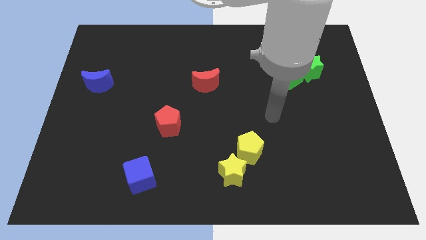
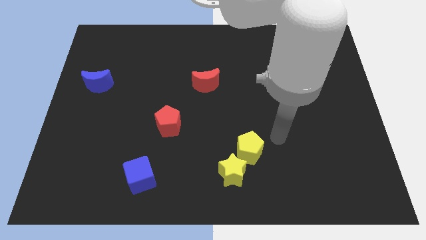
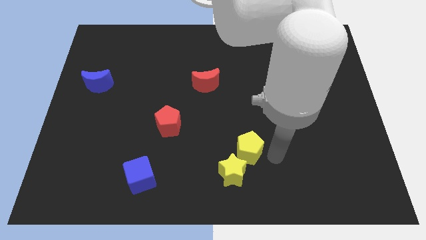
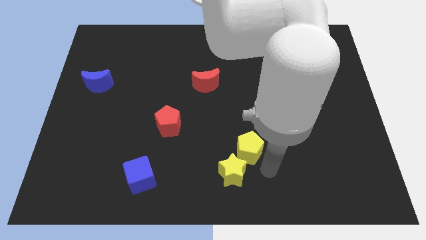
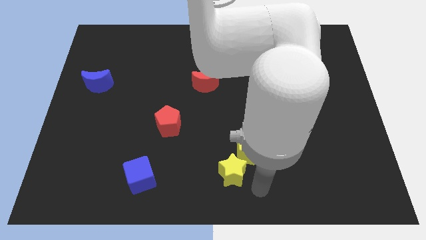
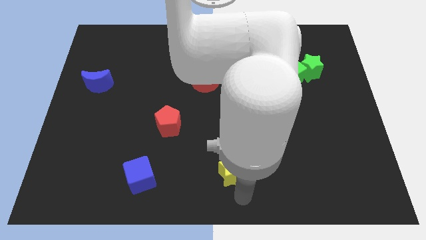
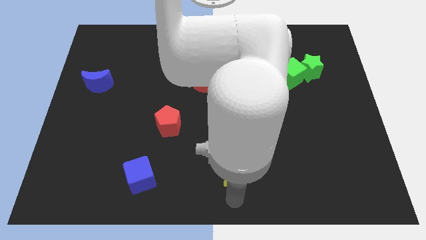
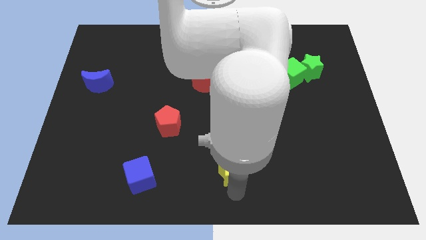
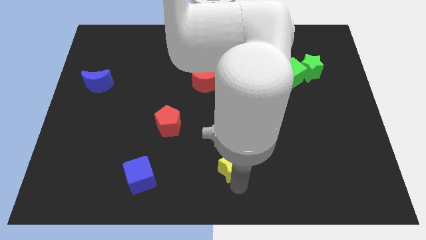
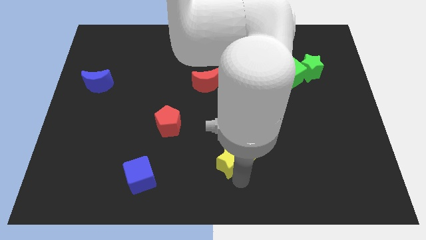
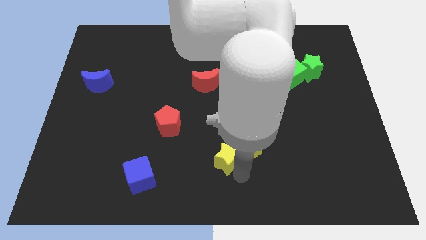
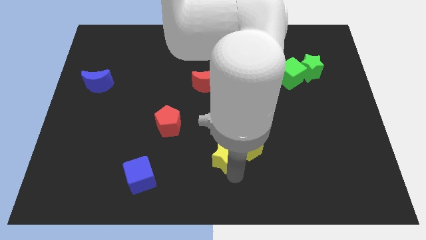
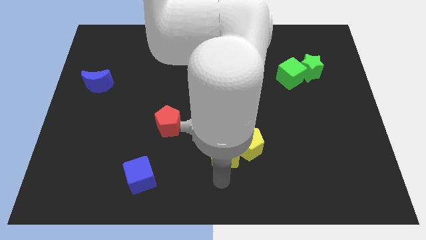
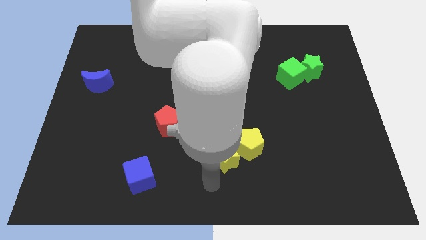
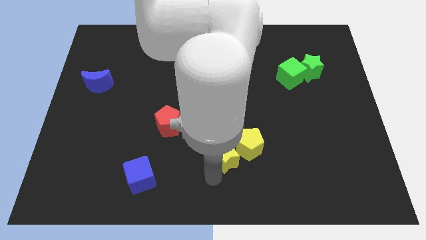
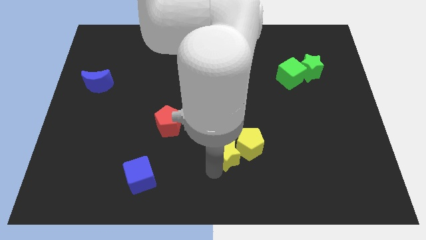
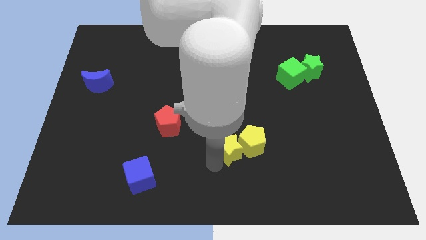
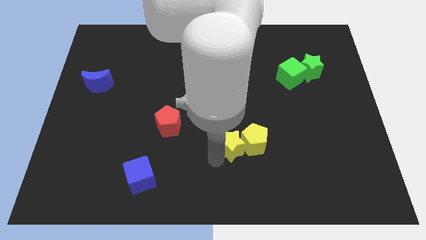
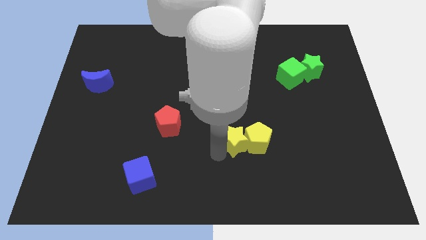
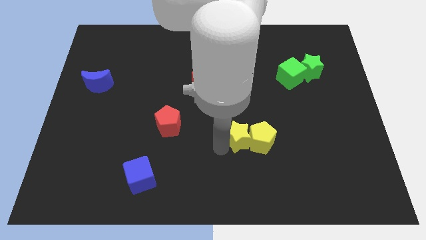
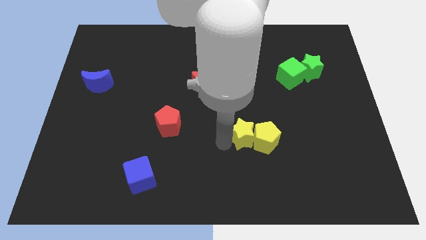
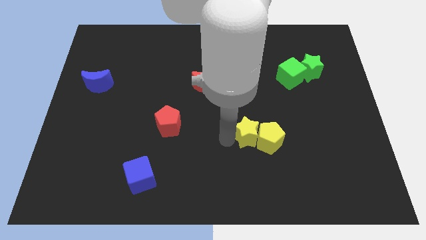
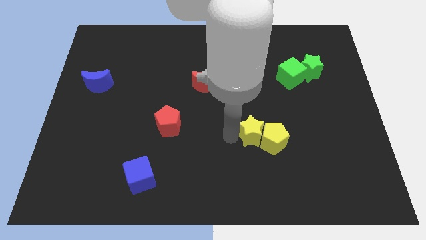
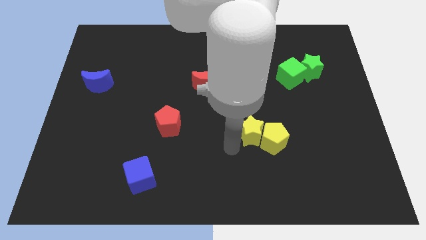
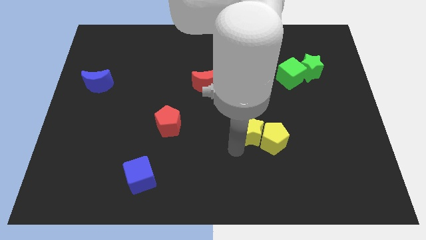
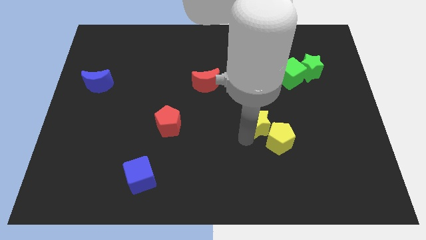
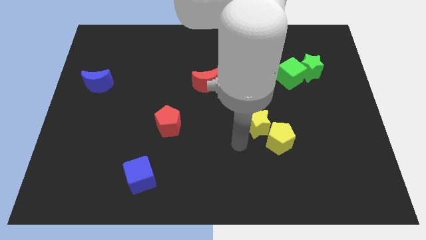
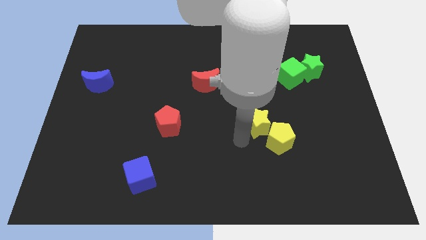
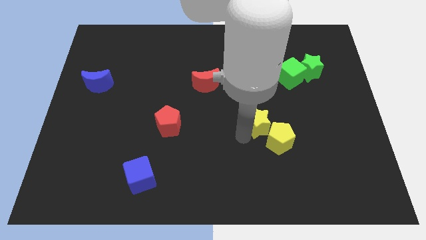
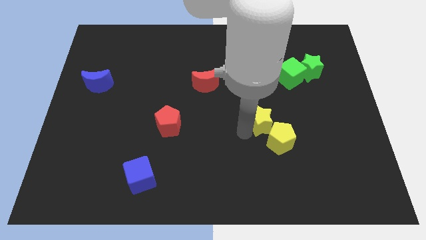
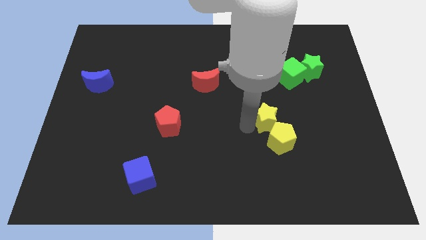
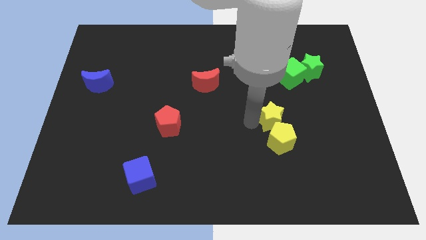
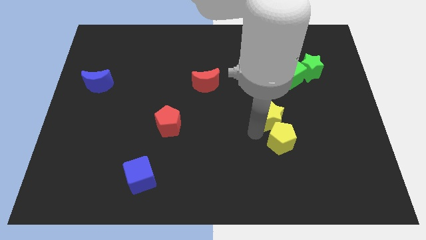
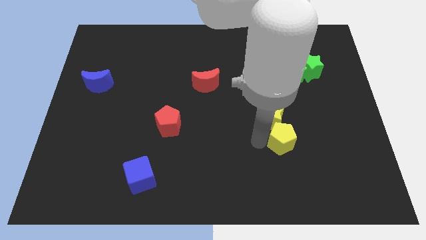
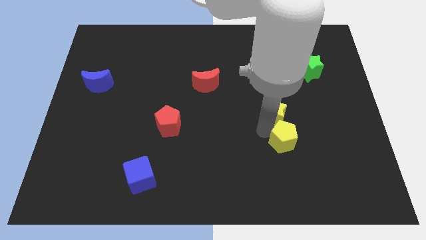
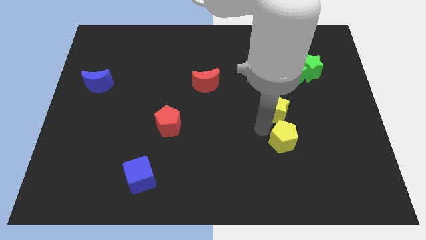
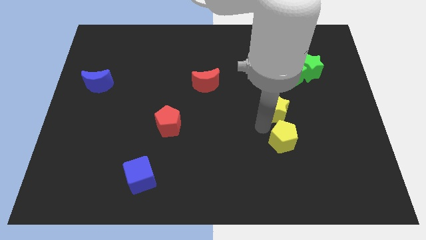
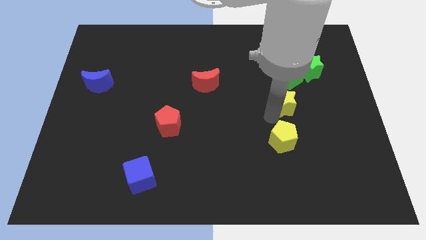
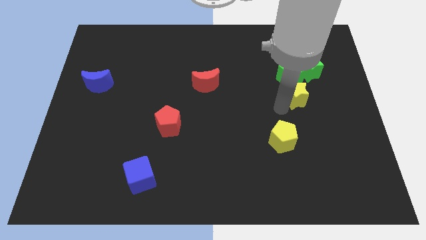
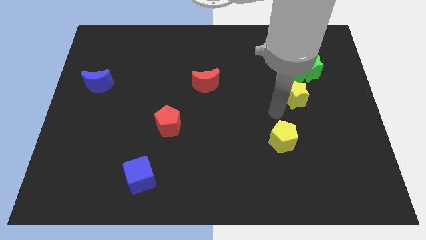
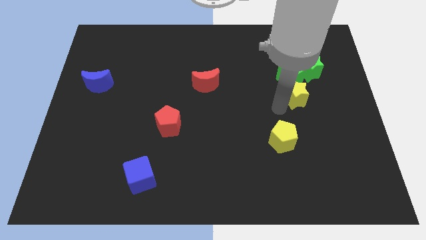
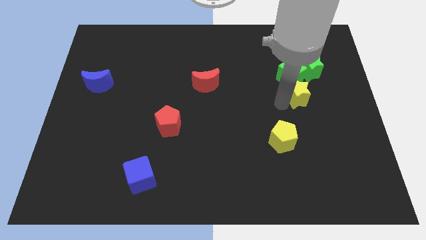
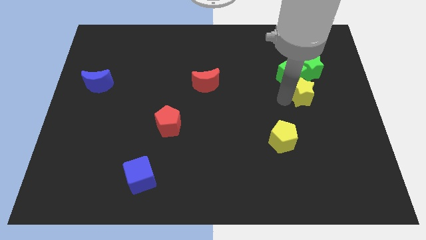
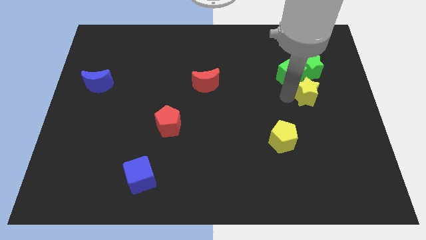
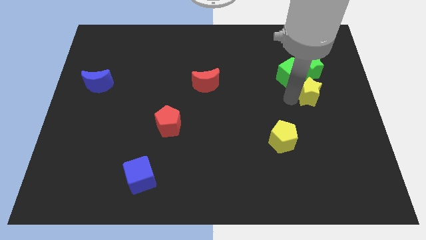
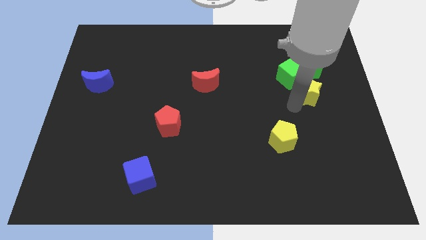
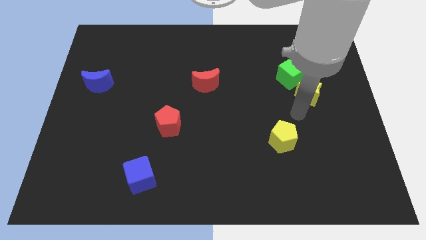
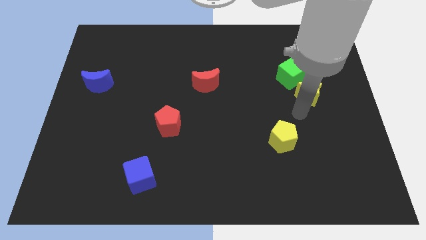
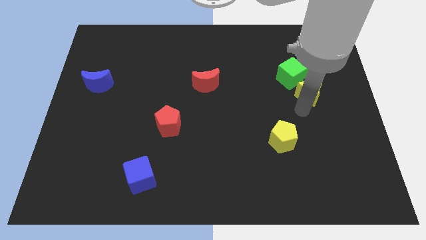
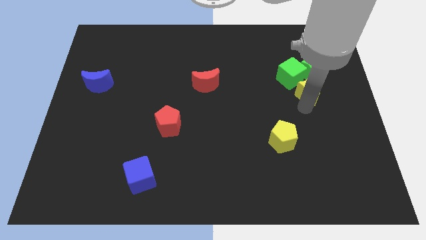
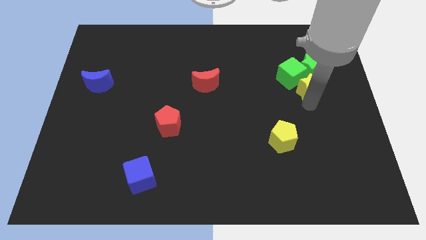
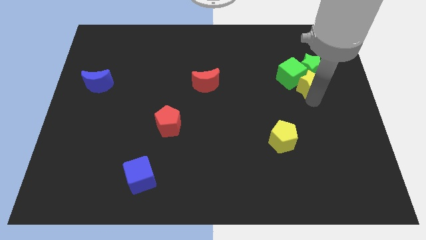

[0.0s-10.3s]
push the yellow star towards the green star

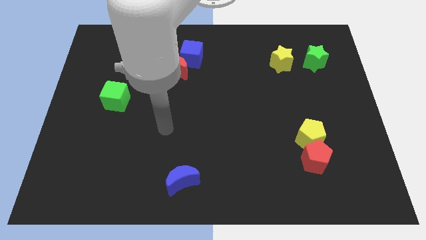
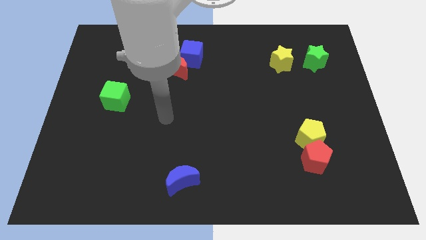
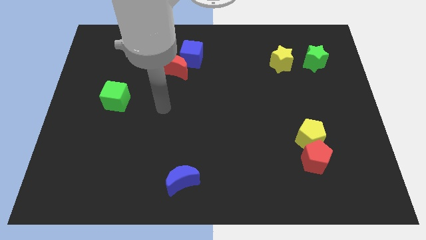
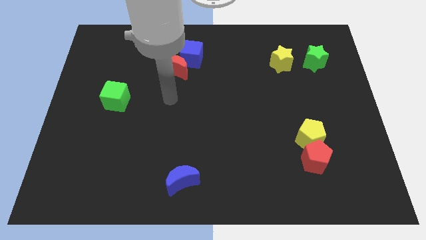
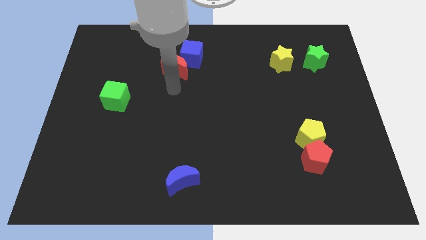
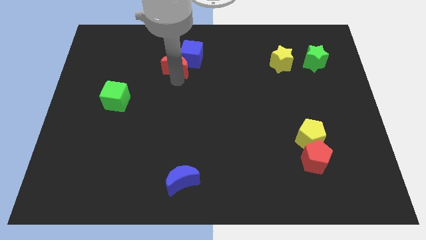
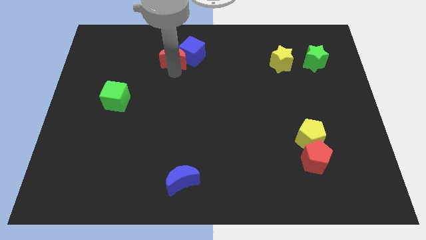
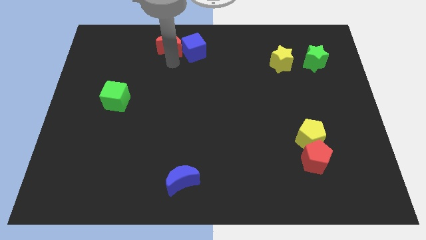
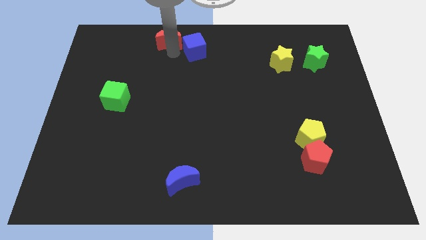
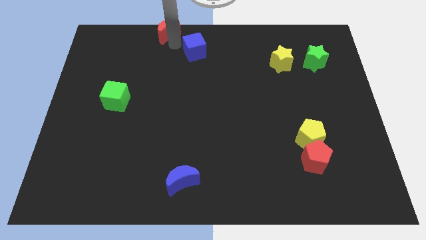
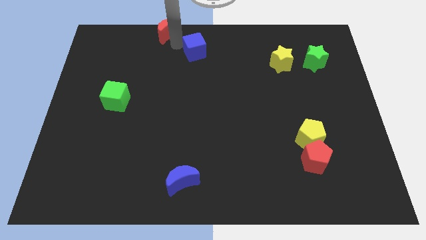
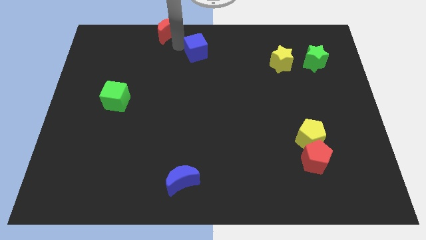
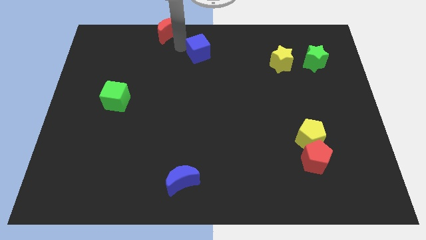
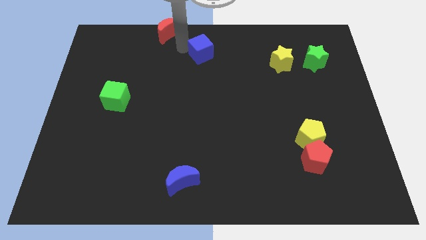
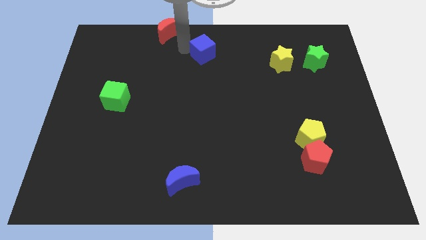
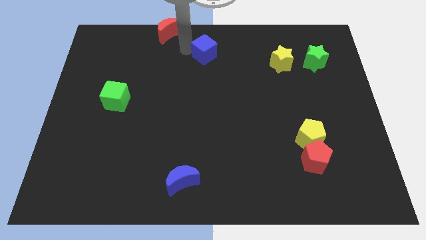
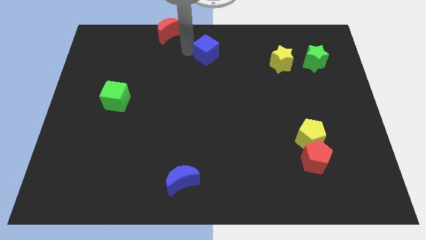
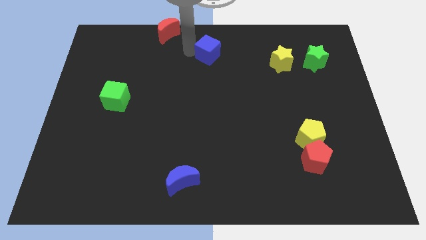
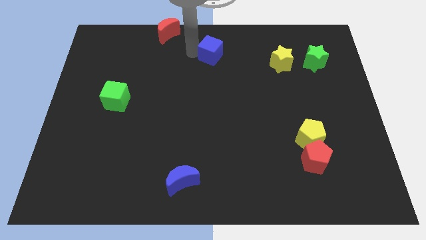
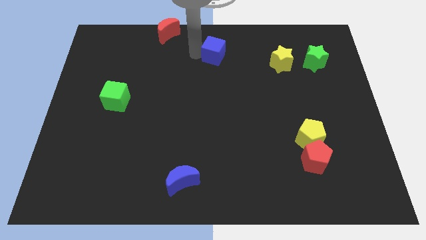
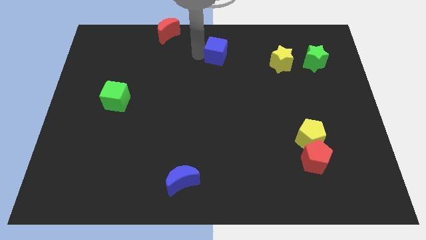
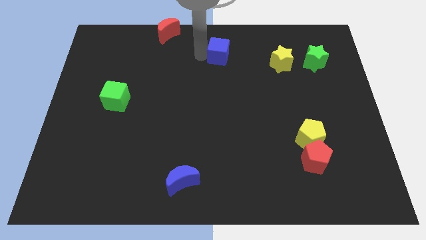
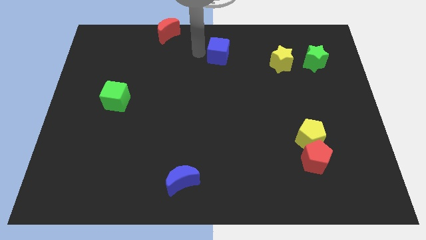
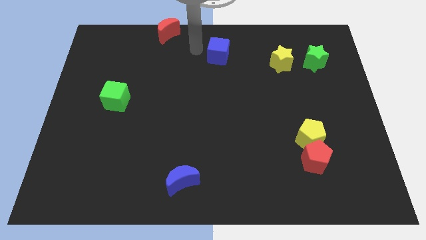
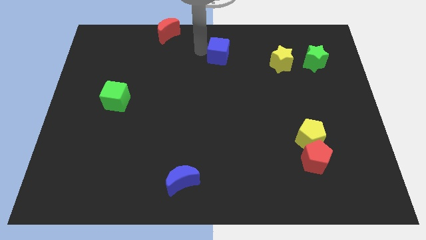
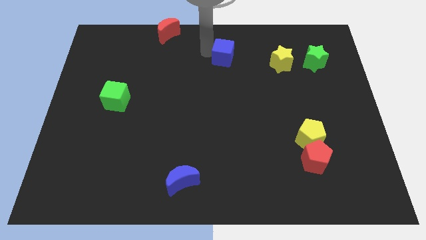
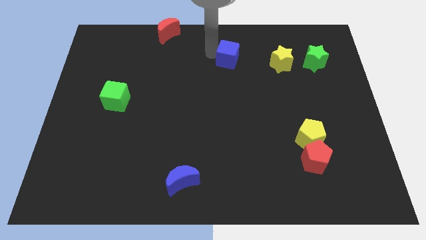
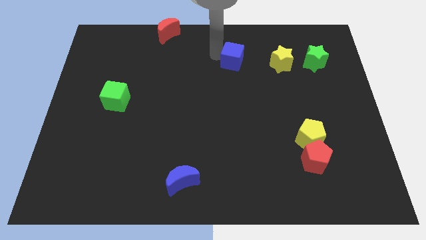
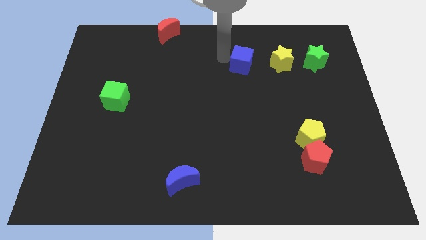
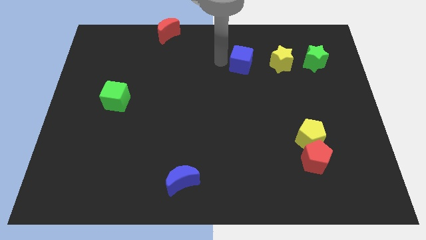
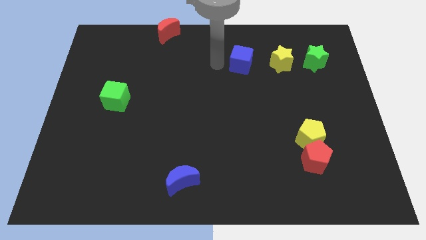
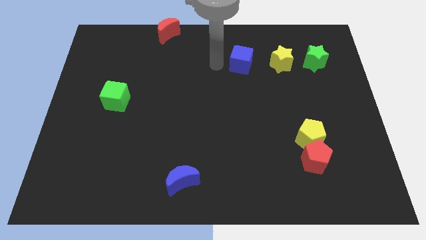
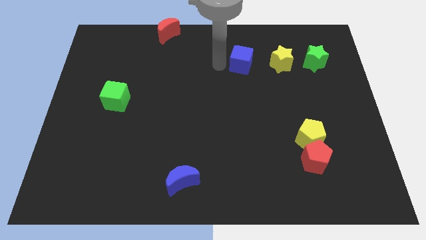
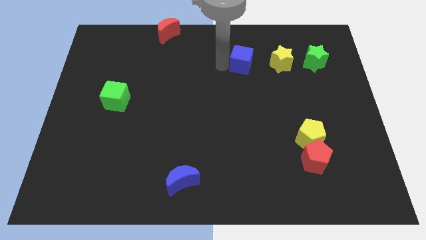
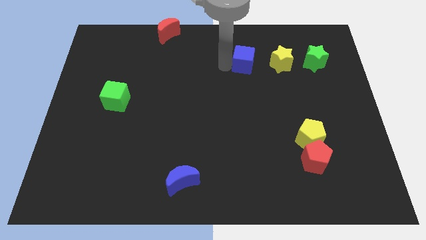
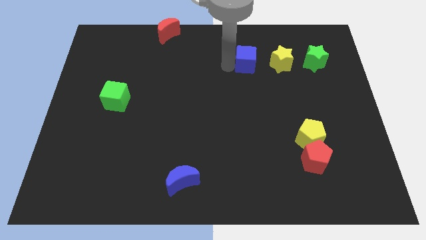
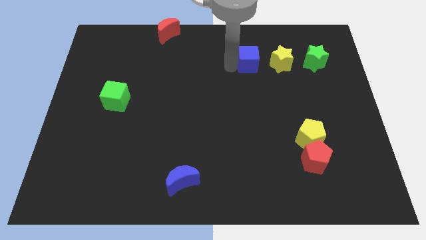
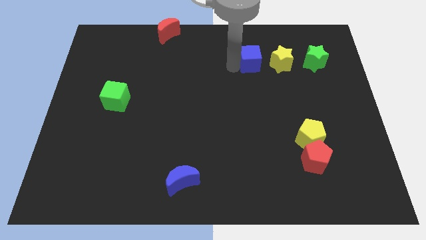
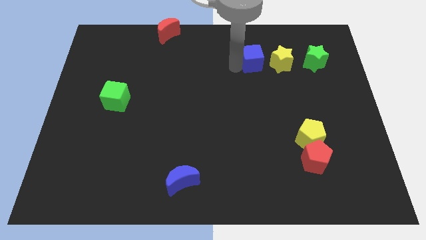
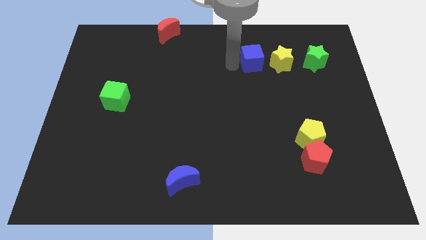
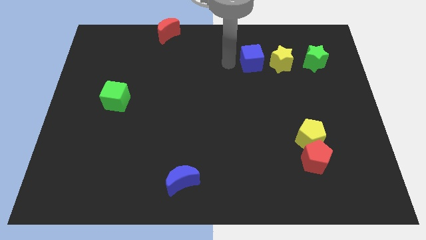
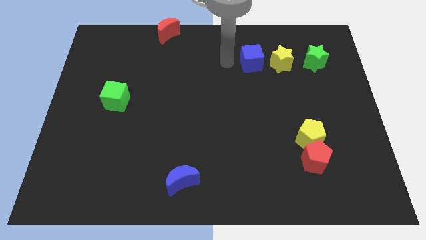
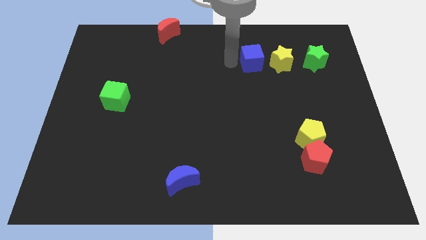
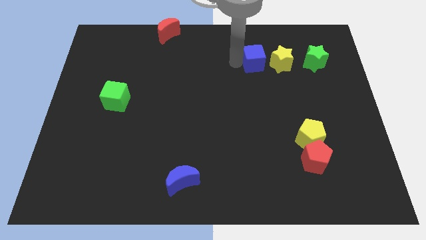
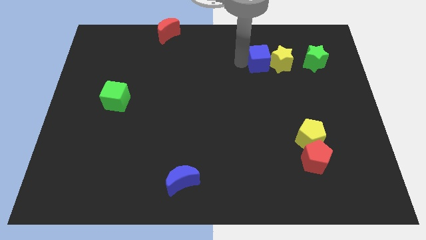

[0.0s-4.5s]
put the blue cube towards the yellow star
